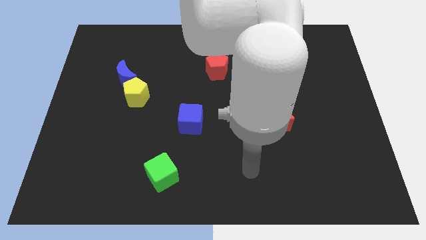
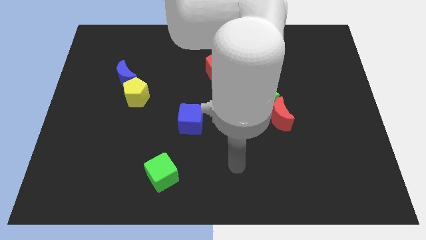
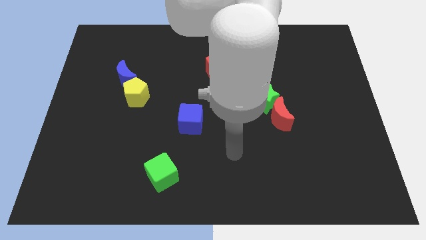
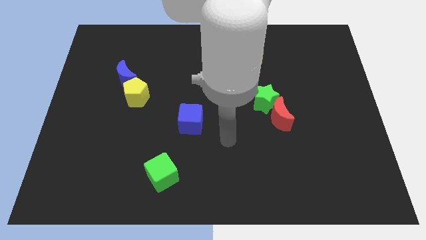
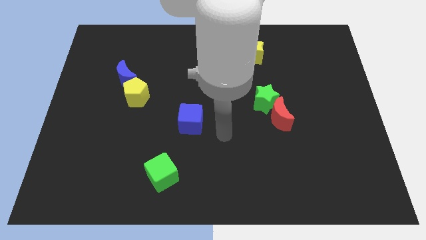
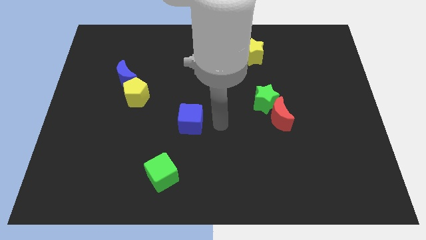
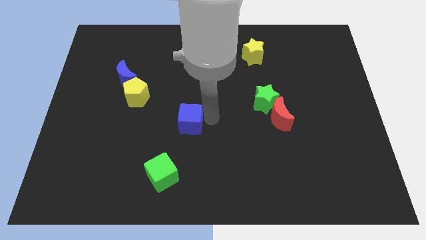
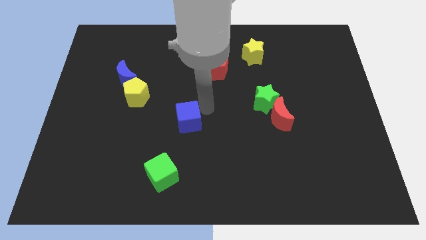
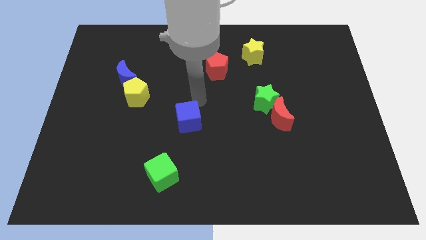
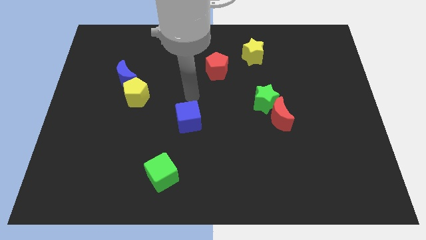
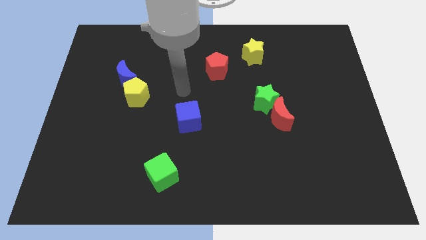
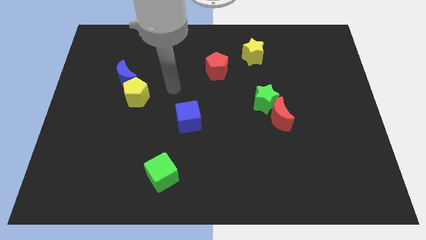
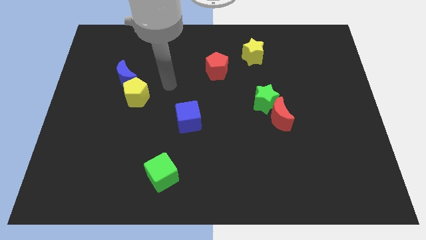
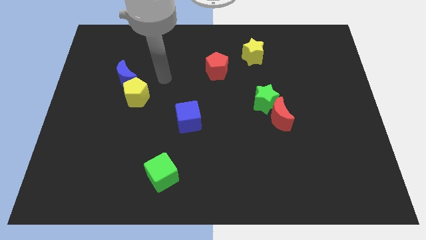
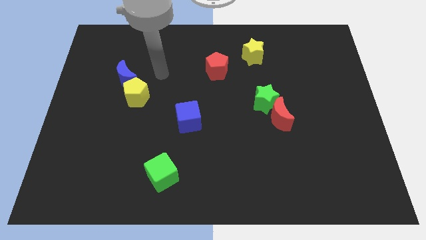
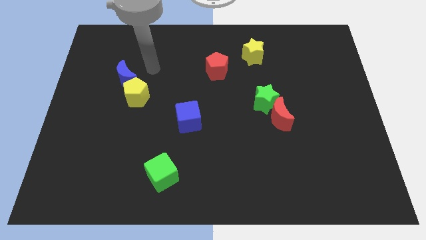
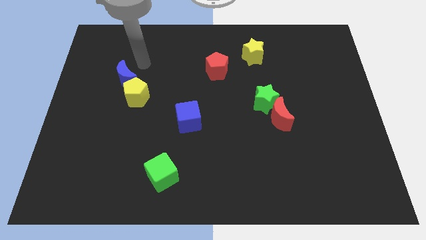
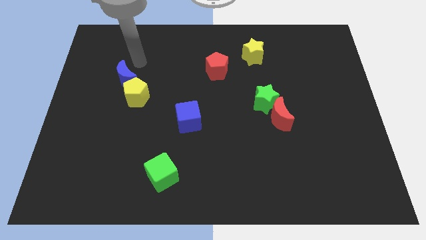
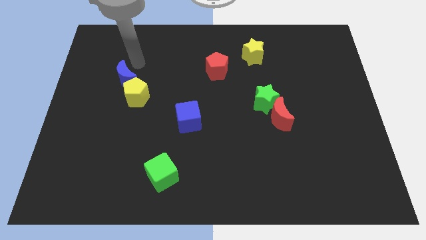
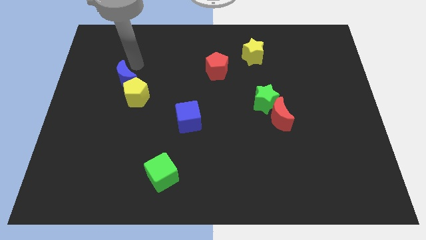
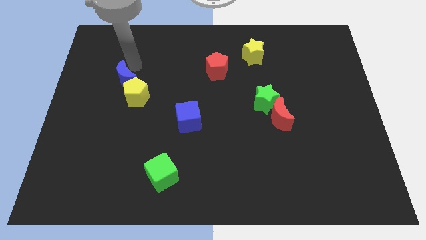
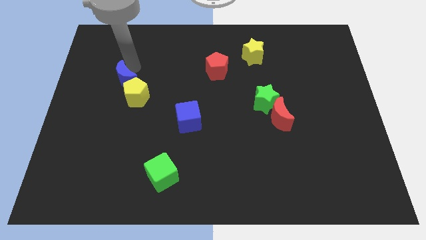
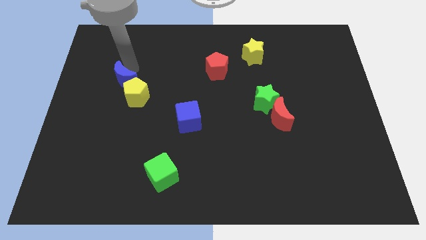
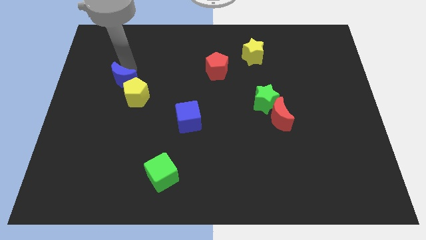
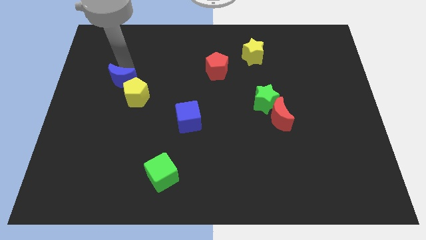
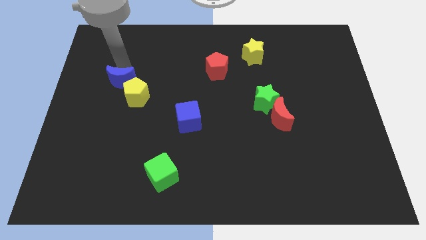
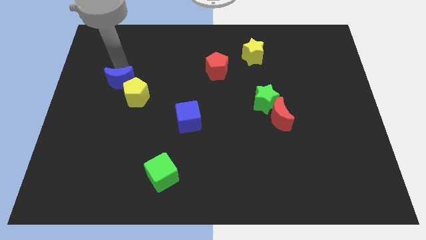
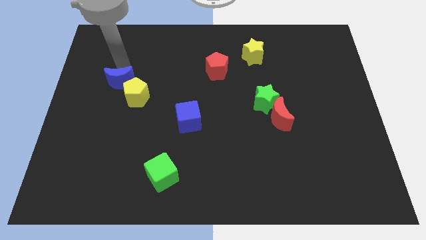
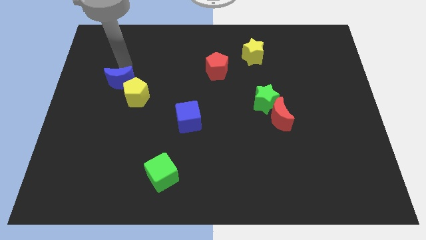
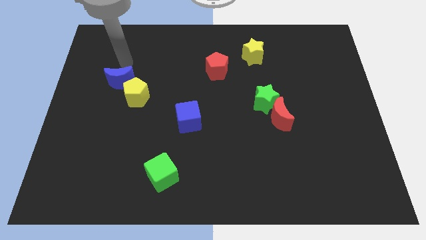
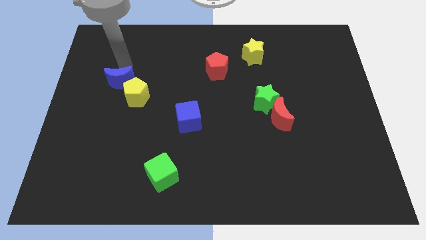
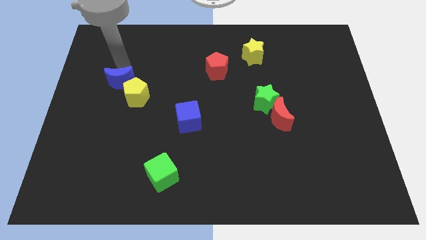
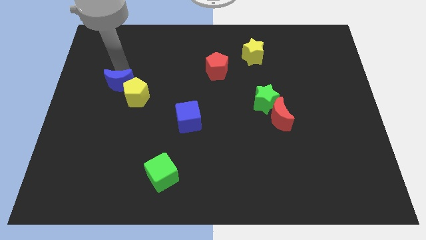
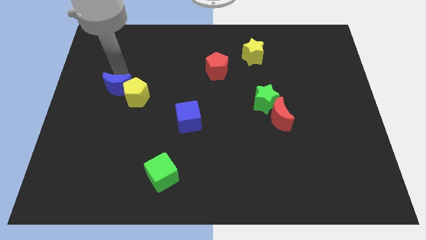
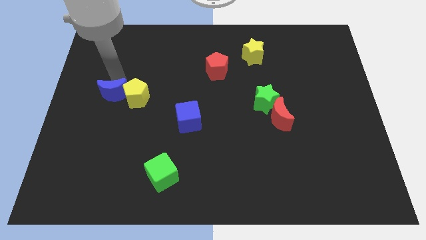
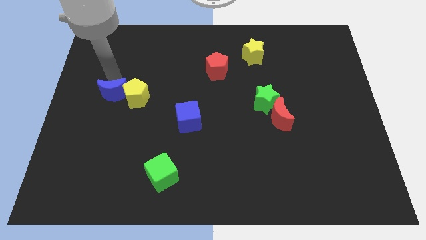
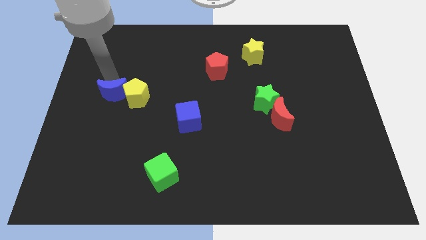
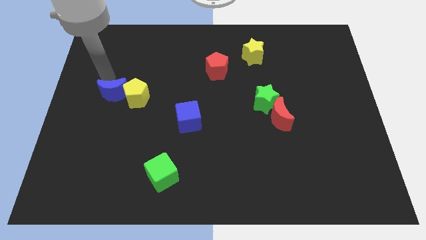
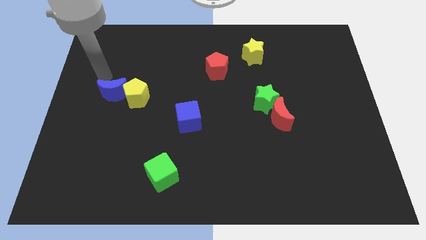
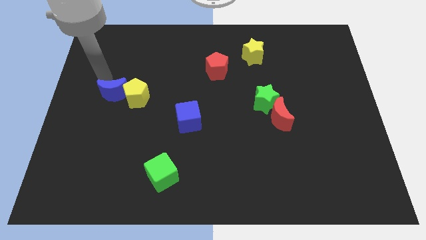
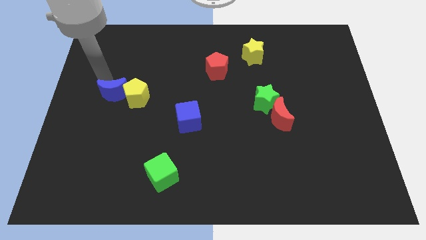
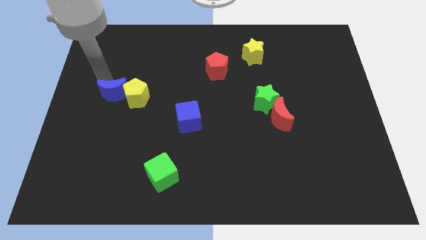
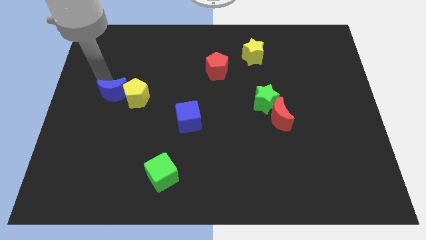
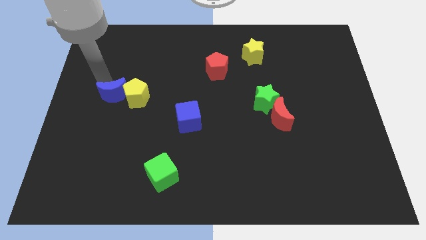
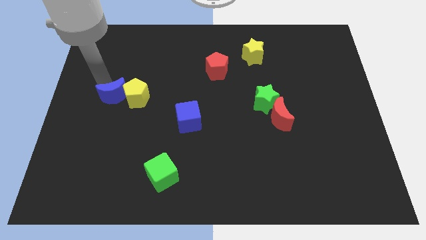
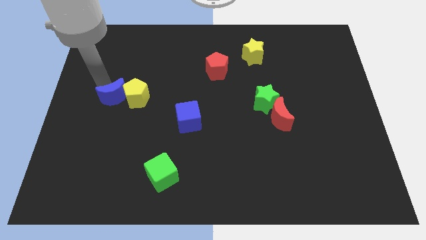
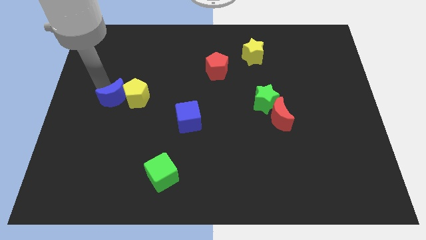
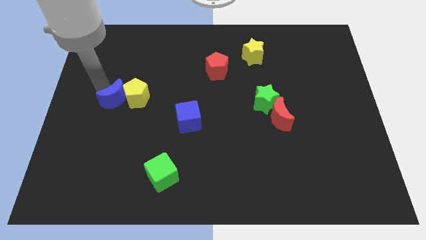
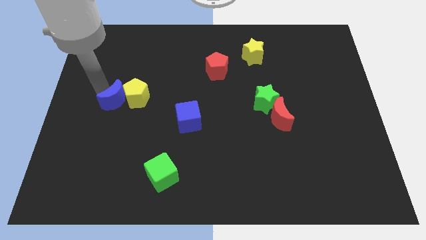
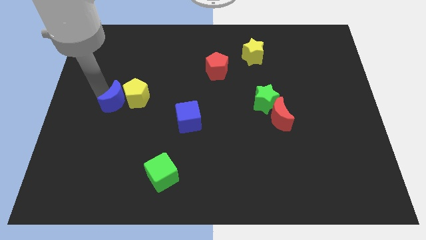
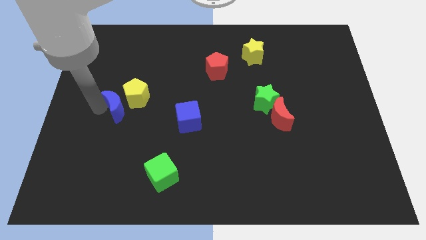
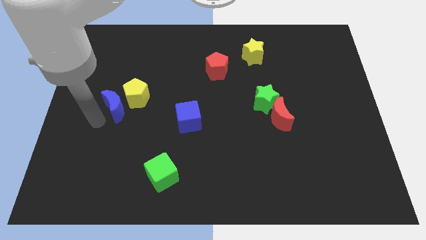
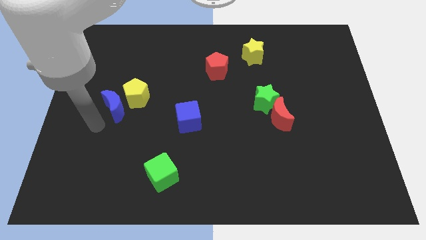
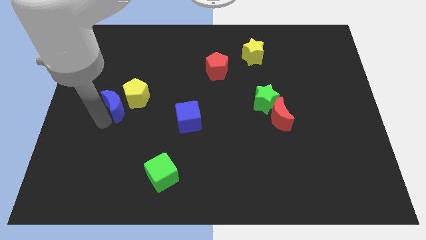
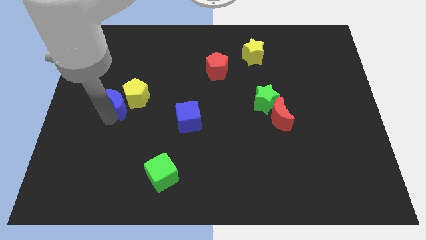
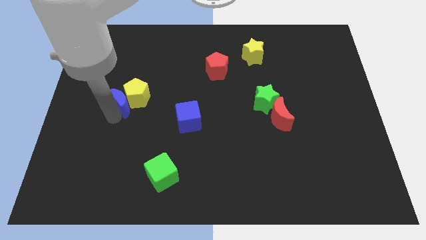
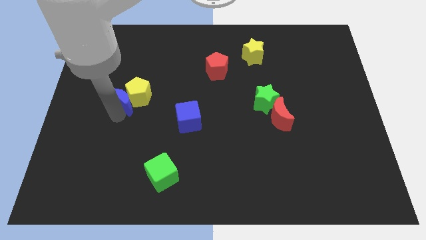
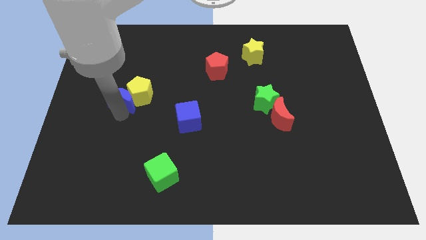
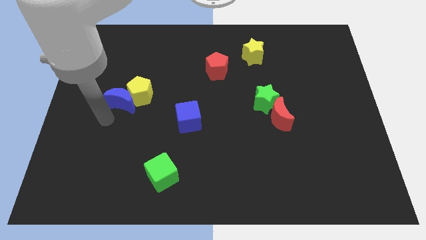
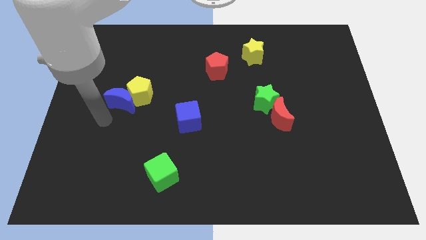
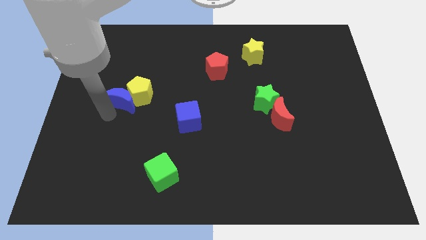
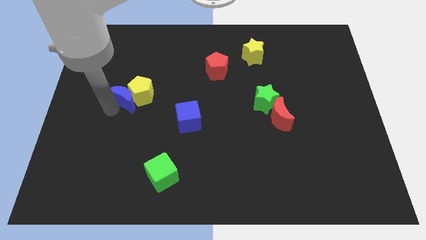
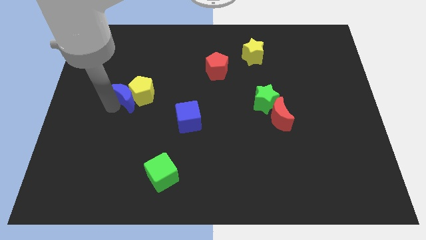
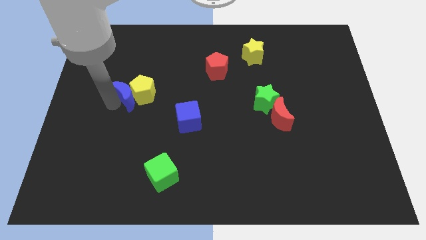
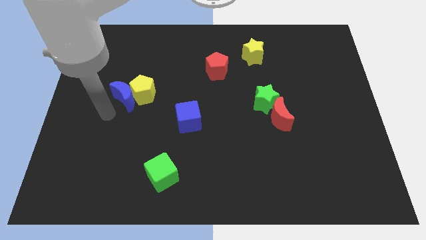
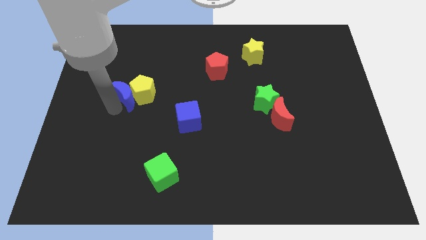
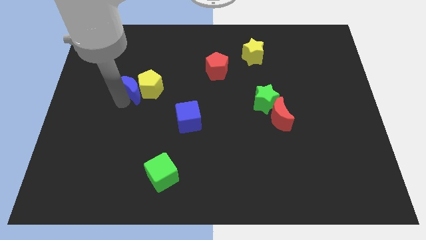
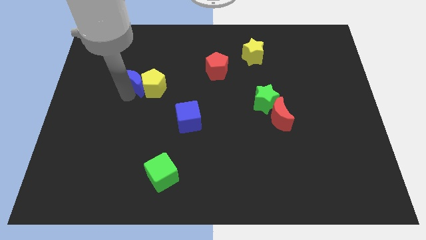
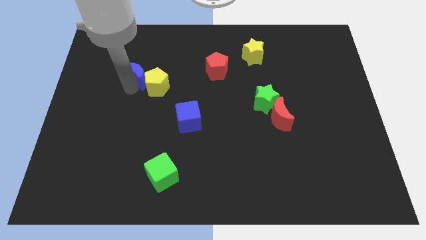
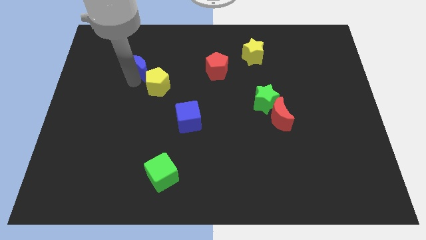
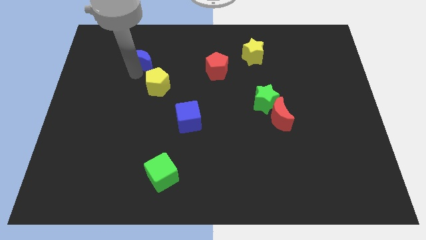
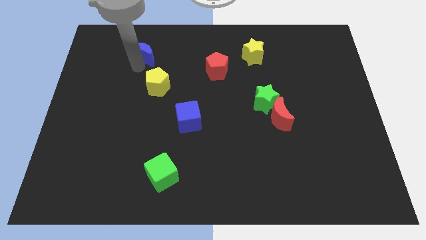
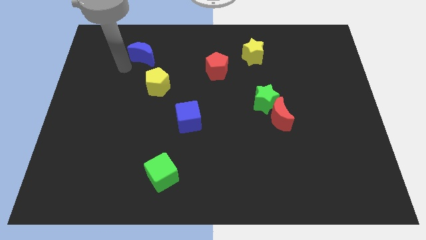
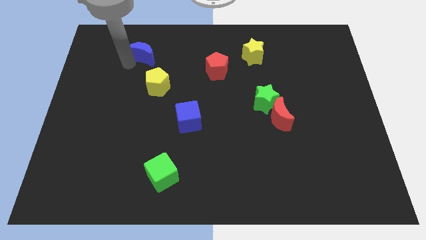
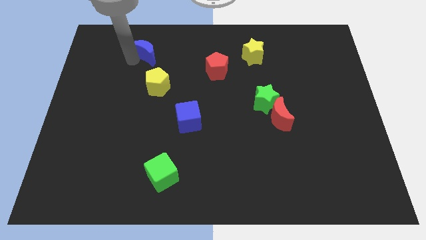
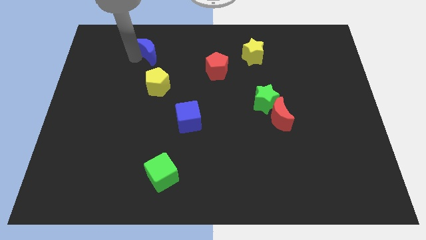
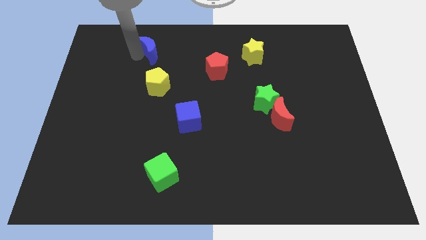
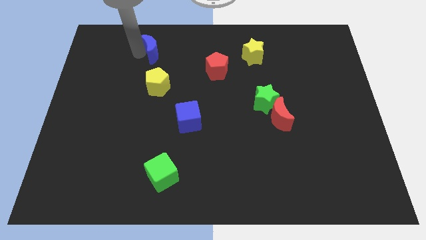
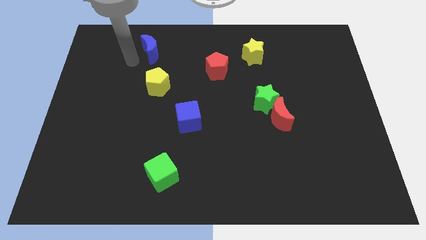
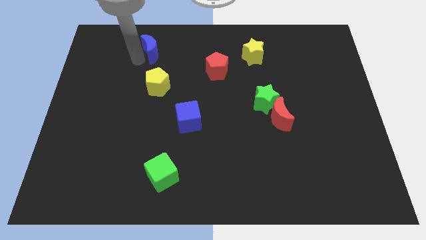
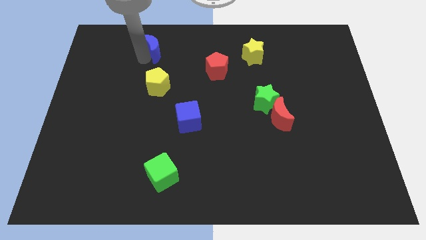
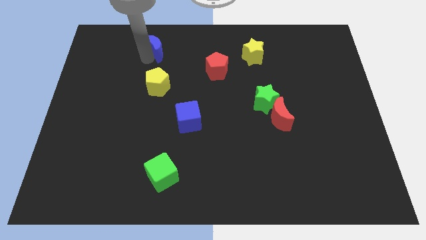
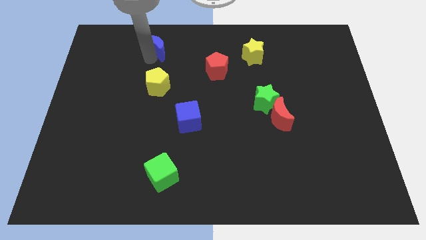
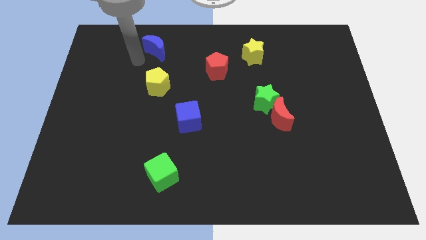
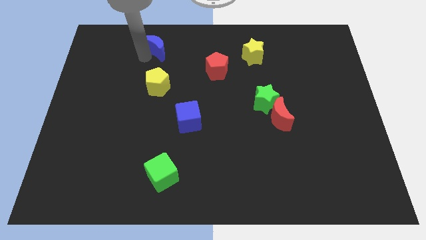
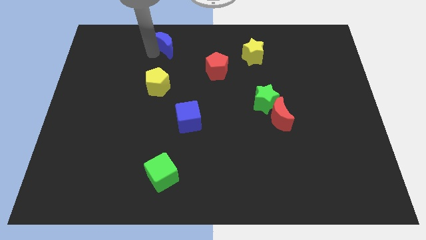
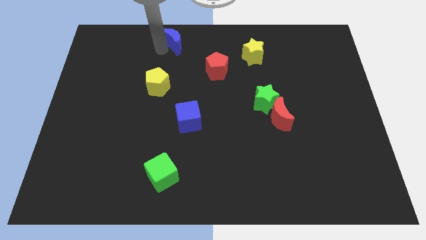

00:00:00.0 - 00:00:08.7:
slide the blue moon to the towards your base
